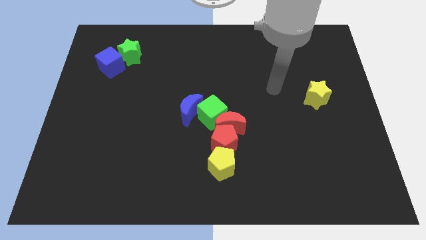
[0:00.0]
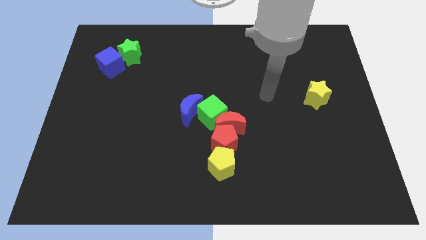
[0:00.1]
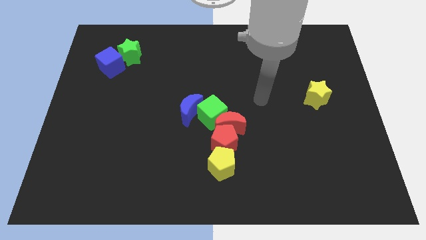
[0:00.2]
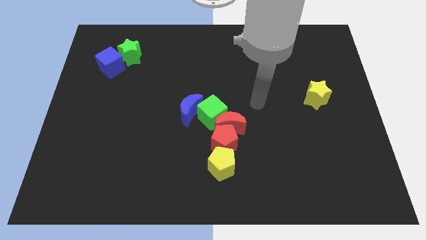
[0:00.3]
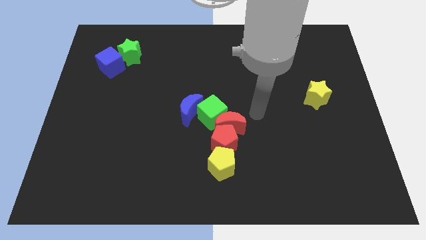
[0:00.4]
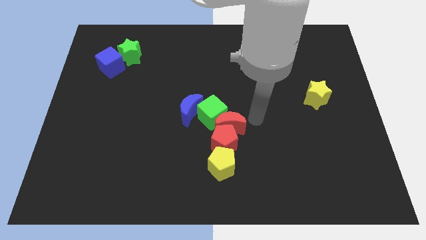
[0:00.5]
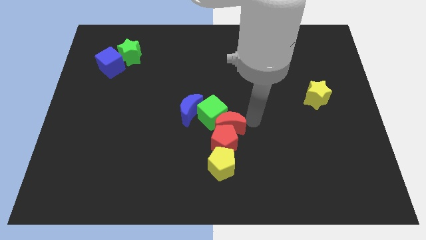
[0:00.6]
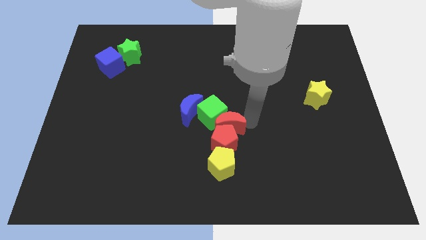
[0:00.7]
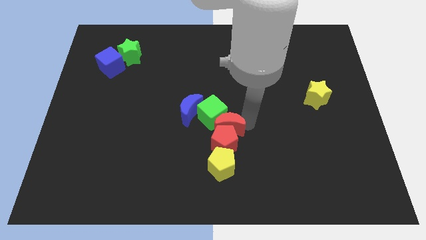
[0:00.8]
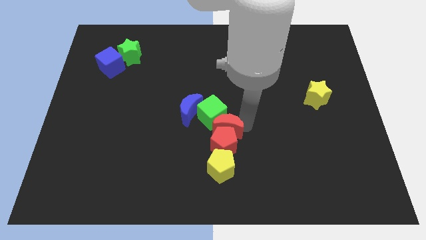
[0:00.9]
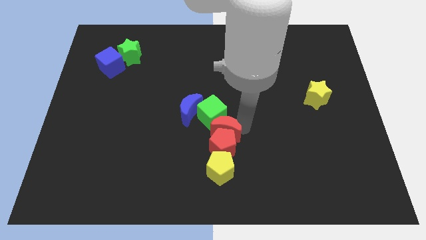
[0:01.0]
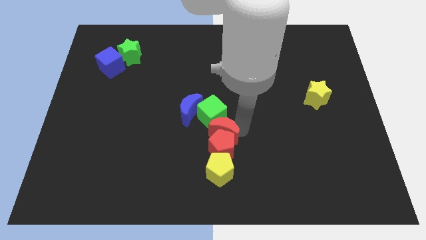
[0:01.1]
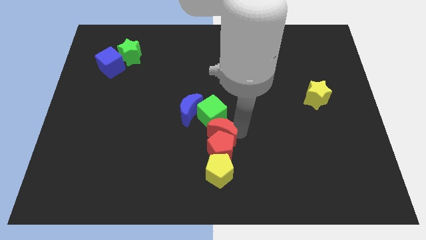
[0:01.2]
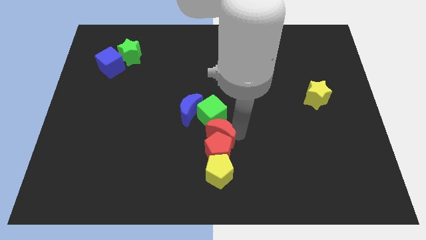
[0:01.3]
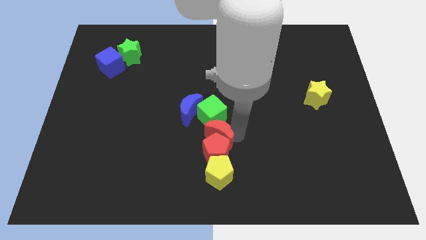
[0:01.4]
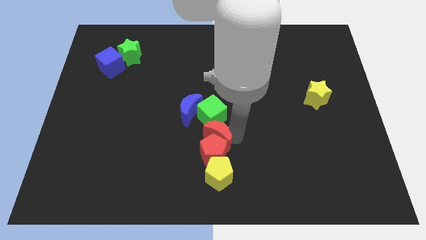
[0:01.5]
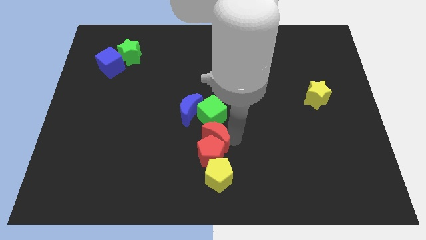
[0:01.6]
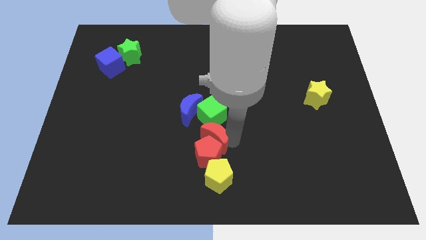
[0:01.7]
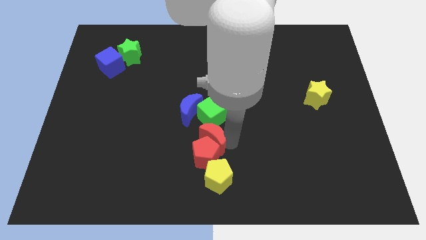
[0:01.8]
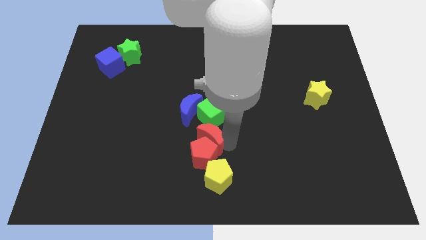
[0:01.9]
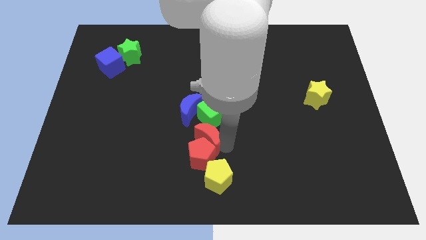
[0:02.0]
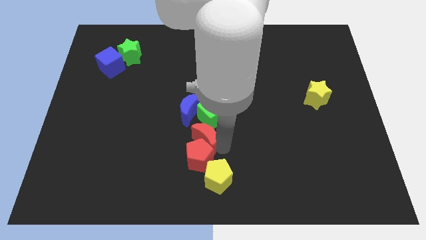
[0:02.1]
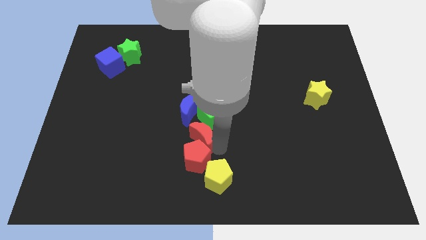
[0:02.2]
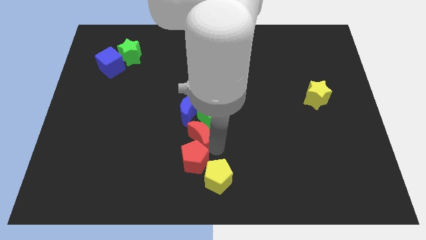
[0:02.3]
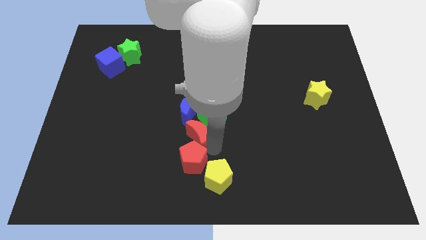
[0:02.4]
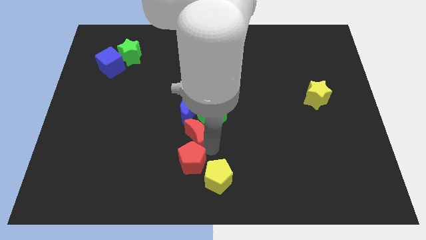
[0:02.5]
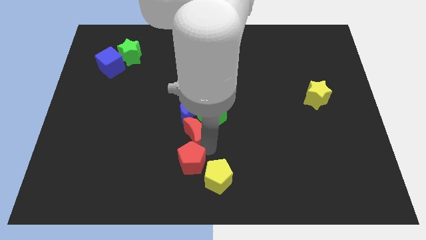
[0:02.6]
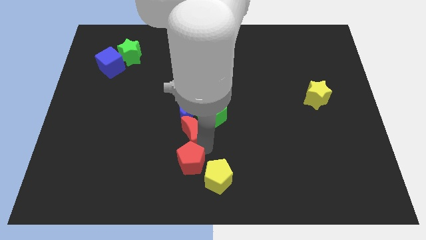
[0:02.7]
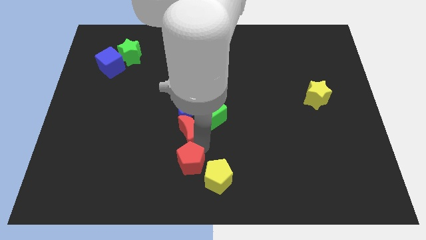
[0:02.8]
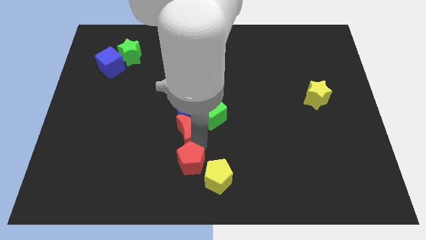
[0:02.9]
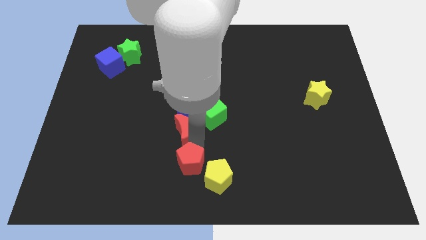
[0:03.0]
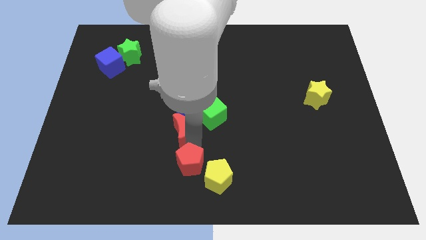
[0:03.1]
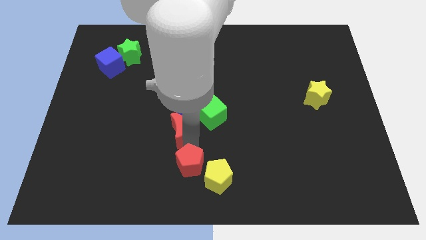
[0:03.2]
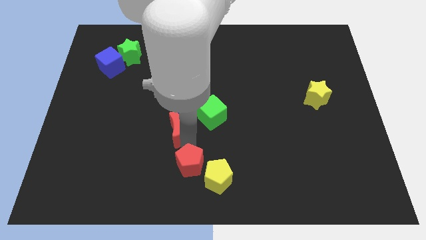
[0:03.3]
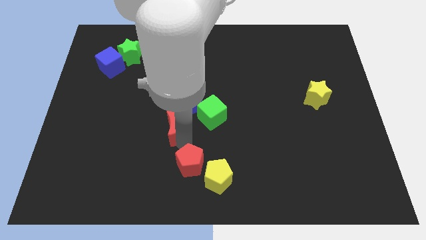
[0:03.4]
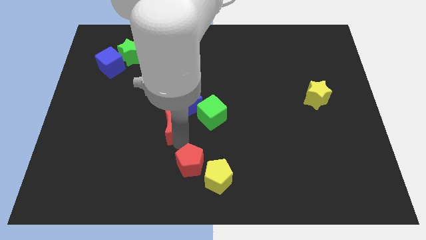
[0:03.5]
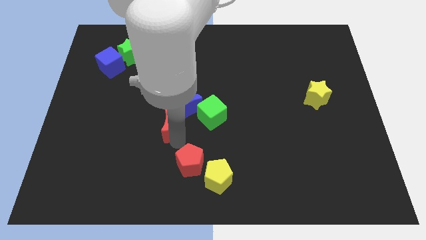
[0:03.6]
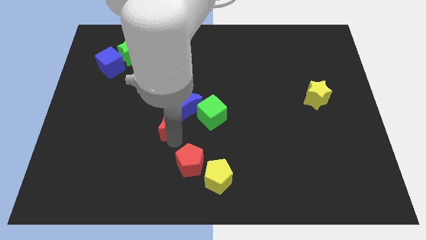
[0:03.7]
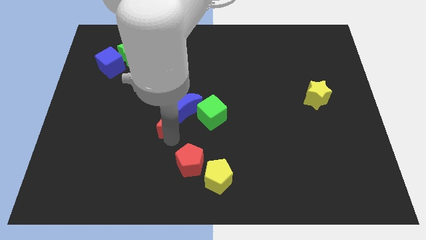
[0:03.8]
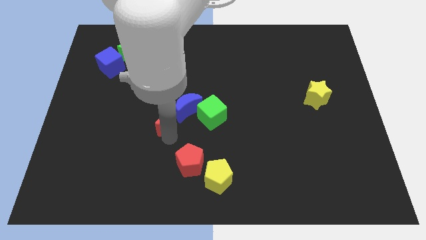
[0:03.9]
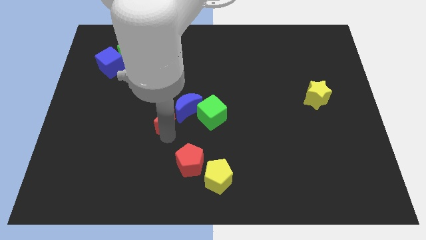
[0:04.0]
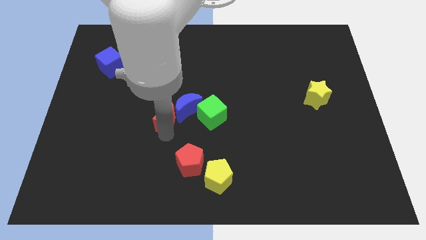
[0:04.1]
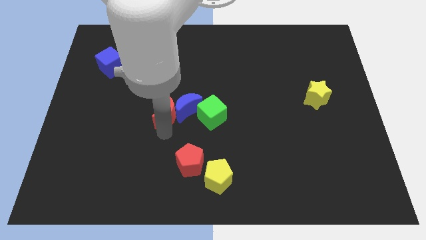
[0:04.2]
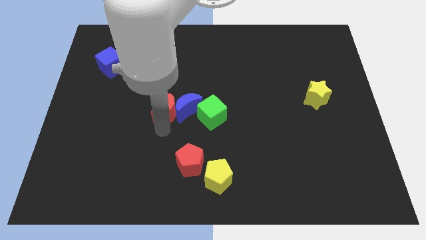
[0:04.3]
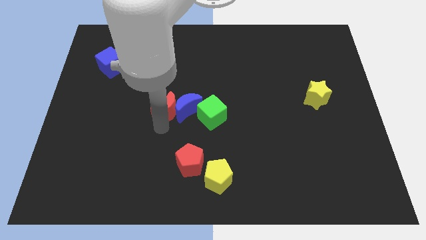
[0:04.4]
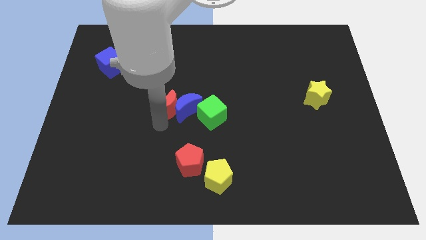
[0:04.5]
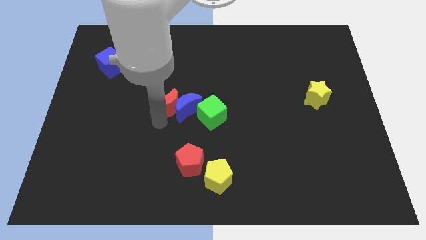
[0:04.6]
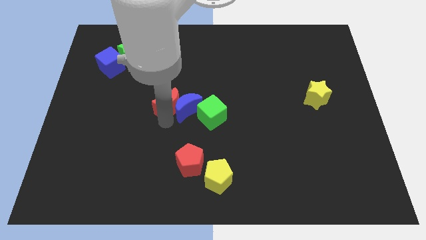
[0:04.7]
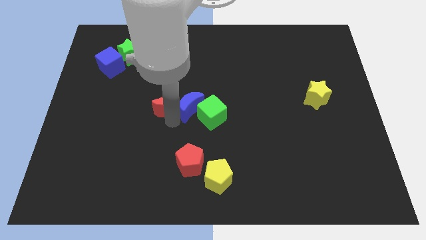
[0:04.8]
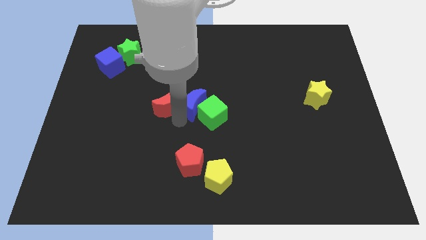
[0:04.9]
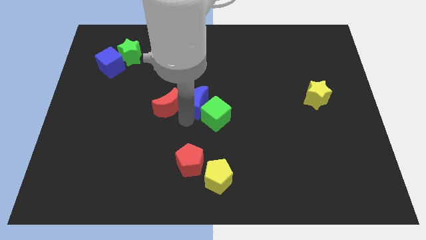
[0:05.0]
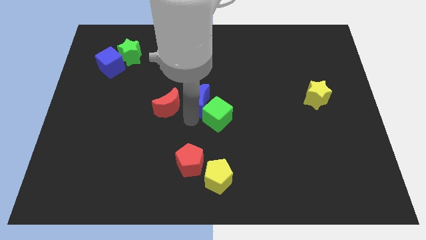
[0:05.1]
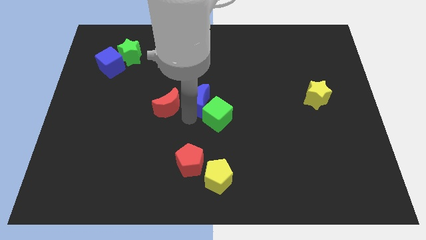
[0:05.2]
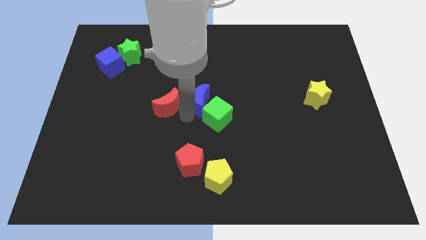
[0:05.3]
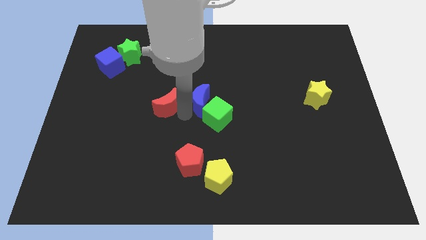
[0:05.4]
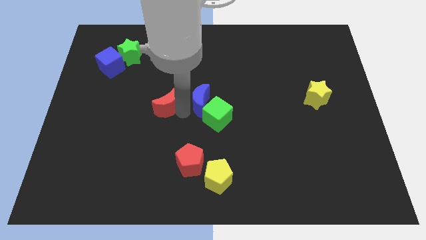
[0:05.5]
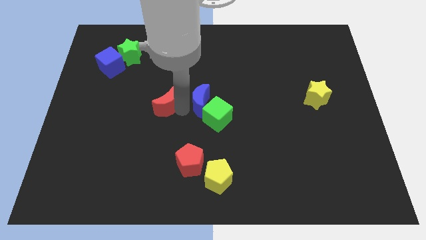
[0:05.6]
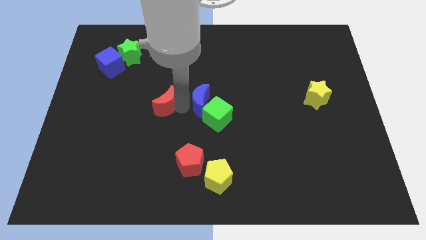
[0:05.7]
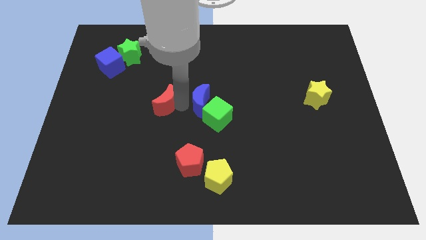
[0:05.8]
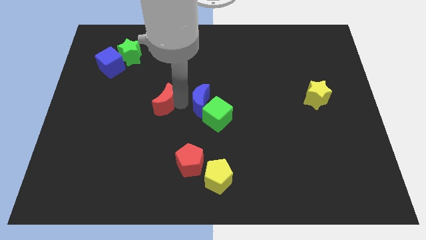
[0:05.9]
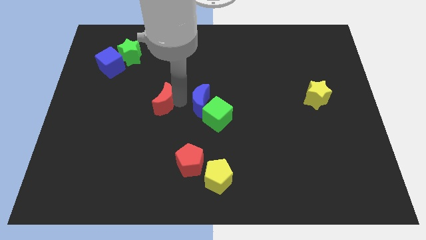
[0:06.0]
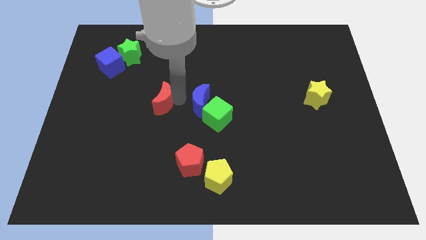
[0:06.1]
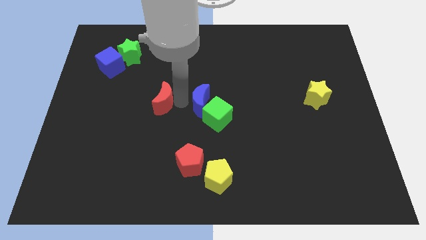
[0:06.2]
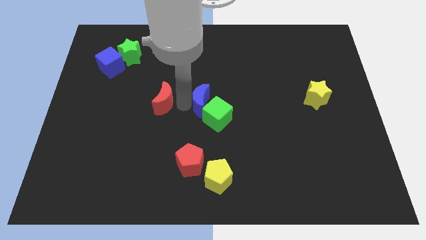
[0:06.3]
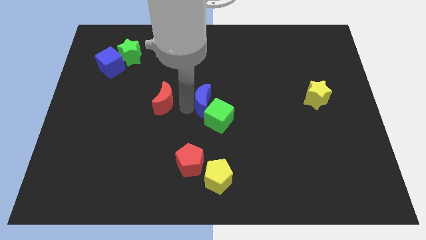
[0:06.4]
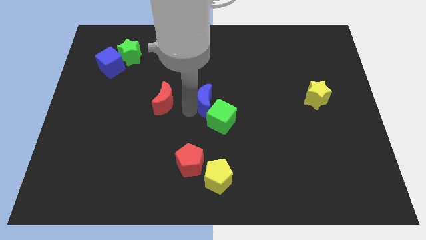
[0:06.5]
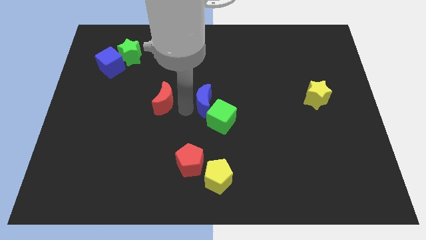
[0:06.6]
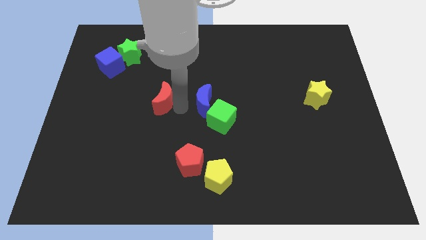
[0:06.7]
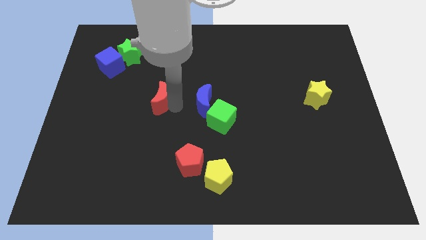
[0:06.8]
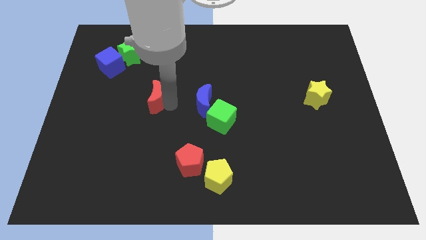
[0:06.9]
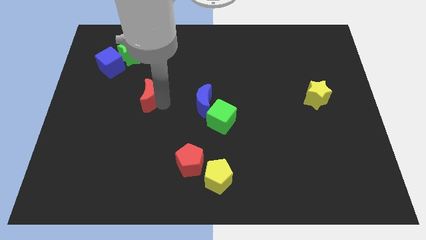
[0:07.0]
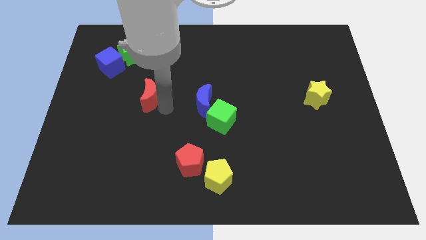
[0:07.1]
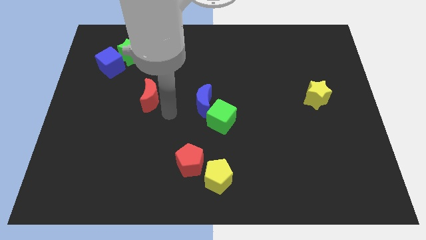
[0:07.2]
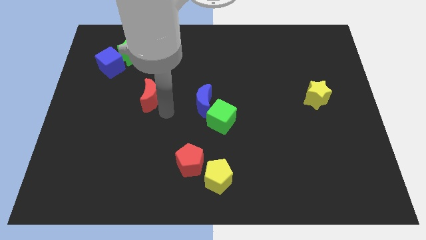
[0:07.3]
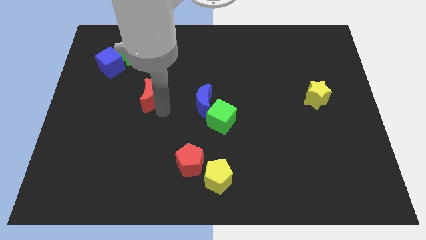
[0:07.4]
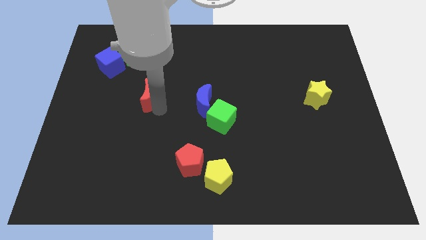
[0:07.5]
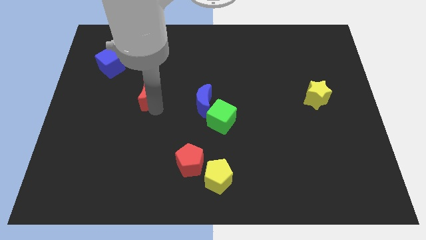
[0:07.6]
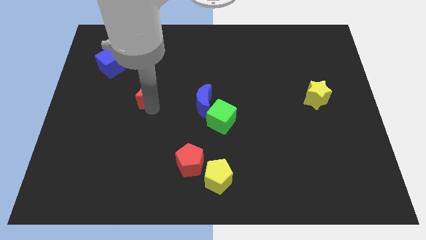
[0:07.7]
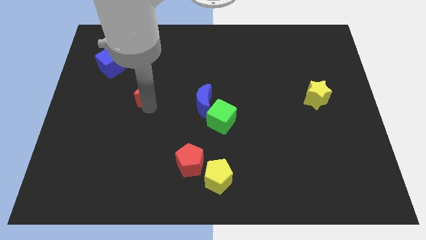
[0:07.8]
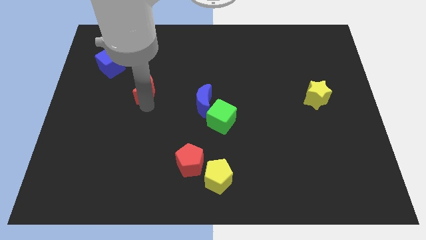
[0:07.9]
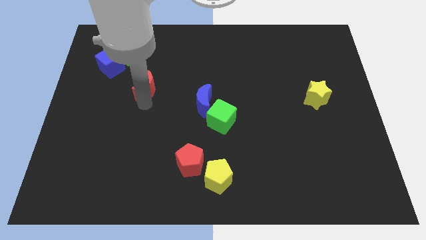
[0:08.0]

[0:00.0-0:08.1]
push the red moon to the bottom right of the blue cube

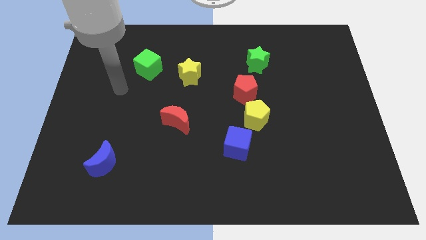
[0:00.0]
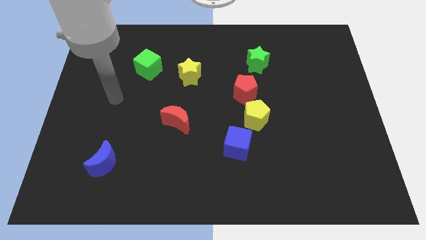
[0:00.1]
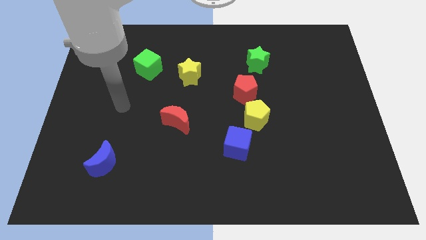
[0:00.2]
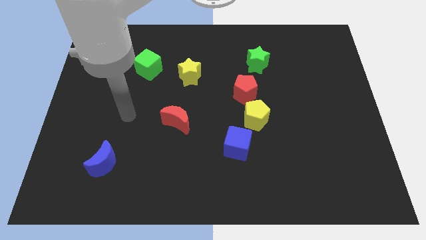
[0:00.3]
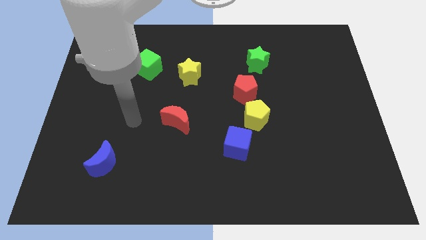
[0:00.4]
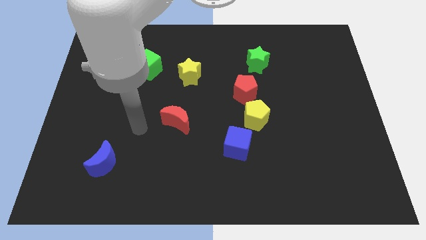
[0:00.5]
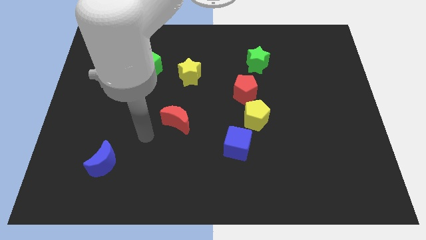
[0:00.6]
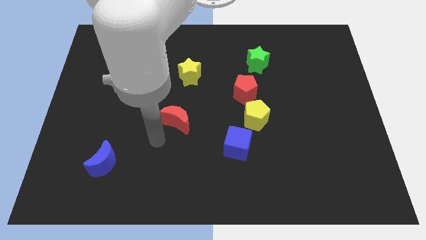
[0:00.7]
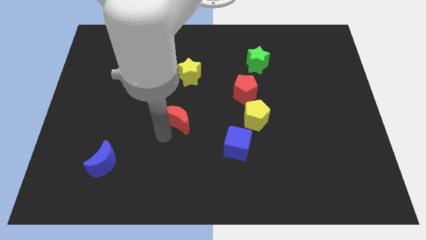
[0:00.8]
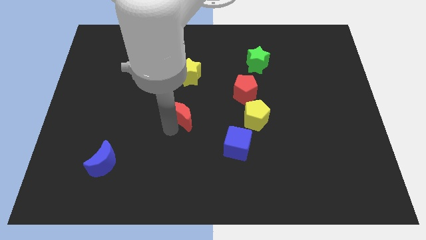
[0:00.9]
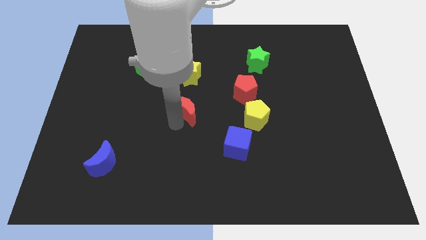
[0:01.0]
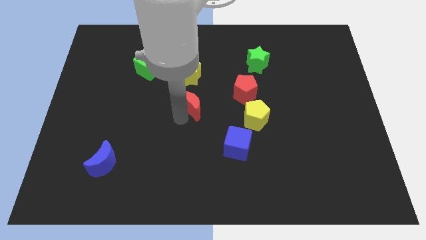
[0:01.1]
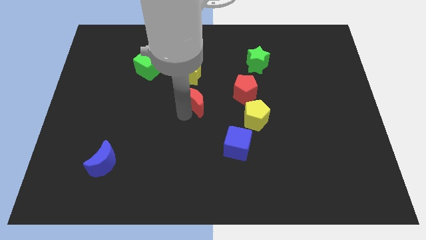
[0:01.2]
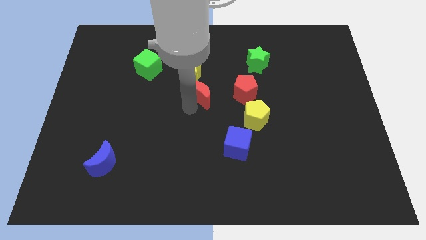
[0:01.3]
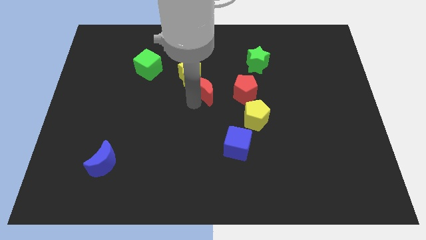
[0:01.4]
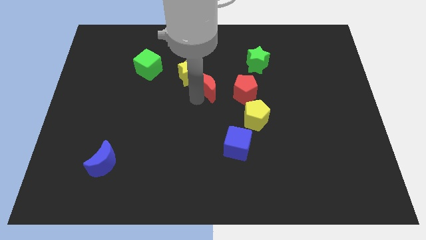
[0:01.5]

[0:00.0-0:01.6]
put the red moon to the right of the yellow star
